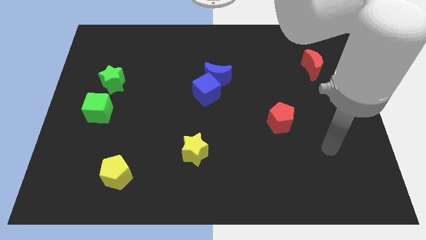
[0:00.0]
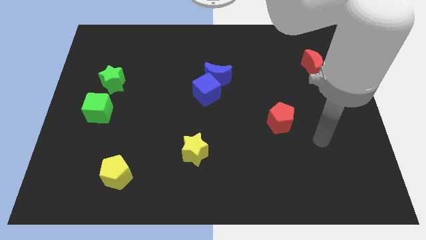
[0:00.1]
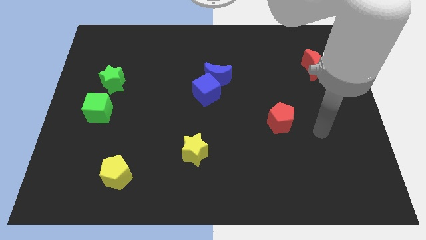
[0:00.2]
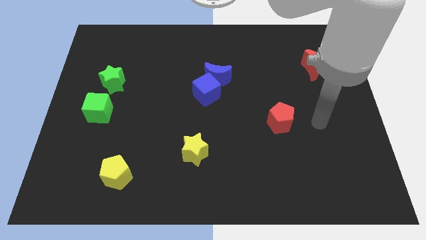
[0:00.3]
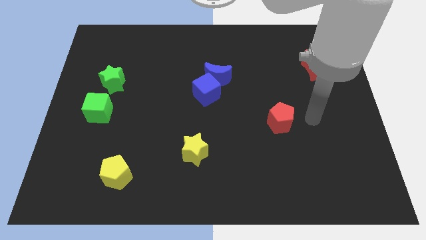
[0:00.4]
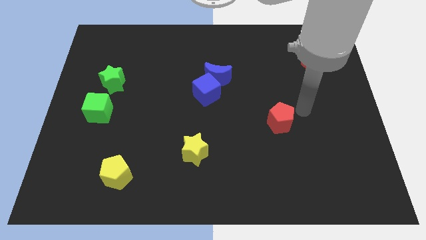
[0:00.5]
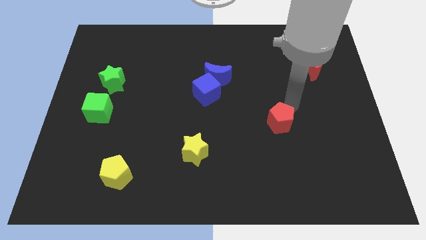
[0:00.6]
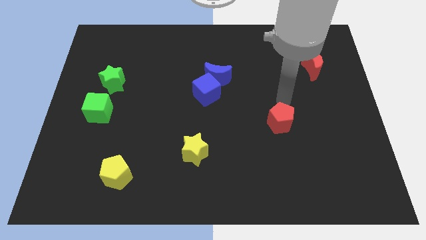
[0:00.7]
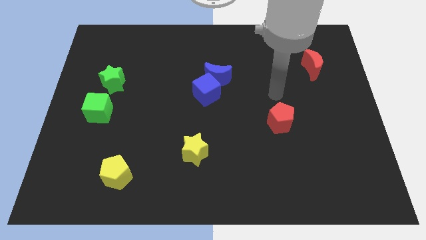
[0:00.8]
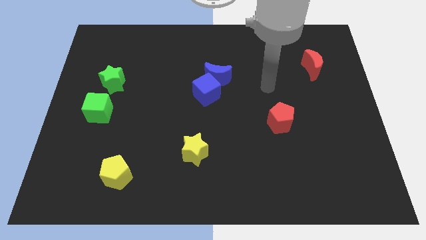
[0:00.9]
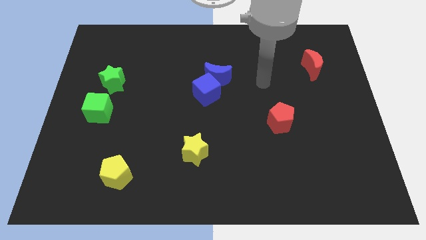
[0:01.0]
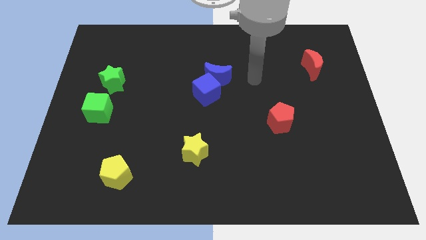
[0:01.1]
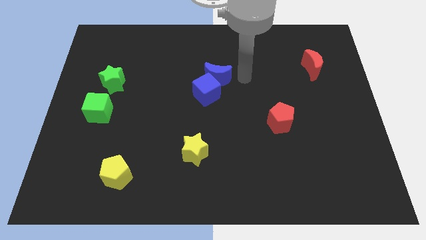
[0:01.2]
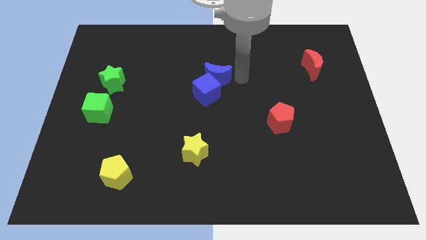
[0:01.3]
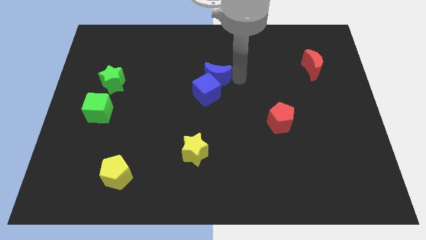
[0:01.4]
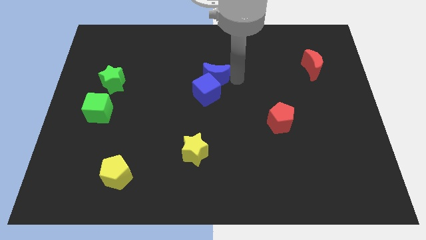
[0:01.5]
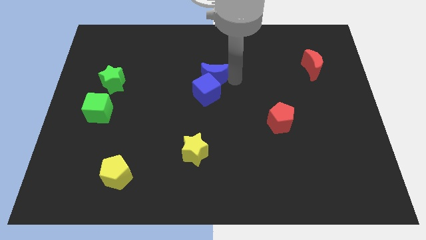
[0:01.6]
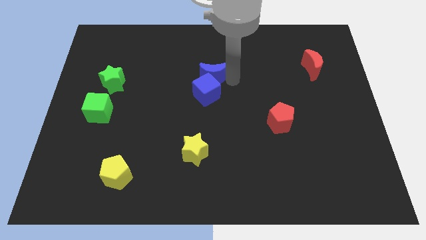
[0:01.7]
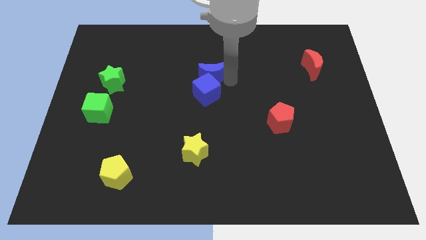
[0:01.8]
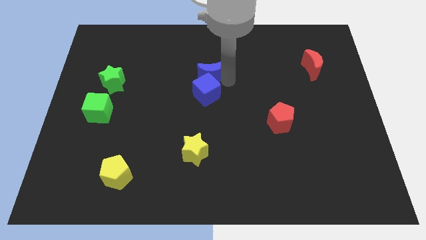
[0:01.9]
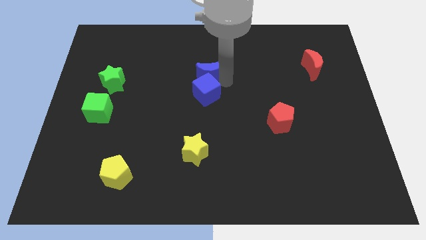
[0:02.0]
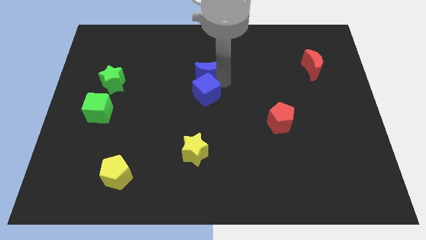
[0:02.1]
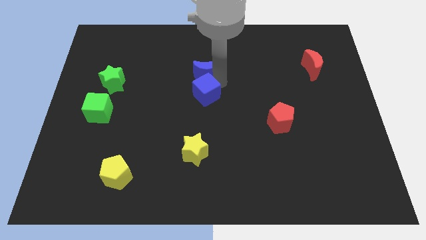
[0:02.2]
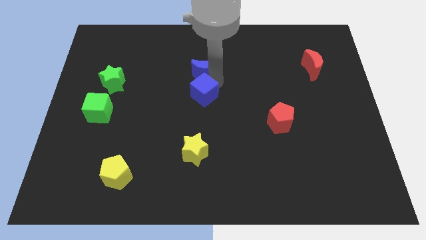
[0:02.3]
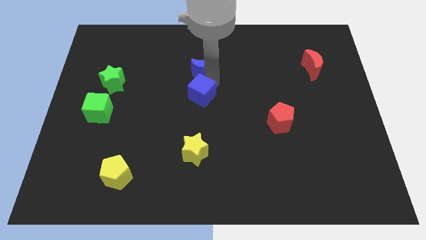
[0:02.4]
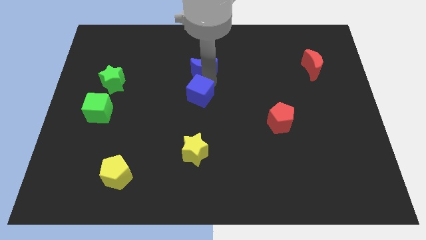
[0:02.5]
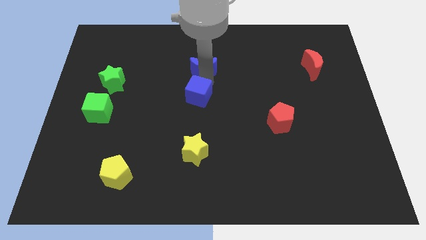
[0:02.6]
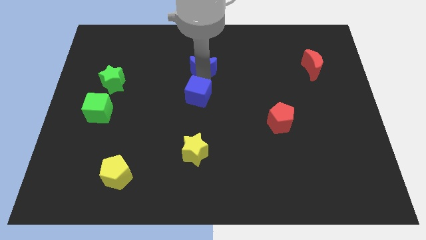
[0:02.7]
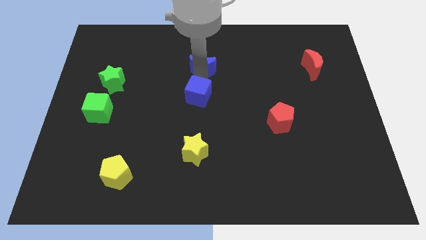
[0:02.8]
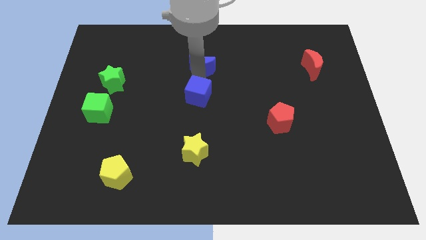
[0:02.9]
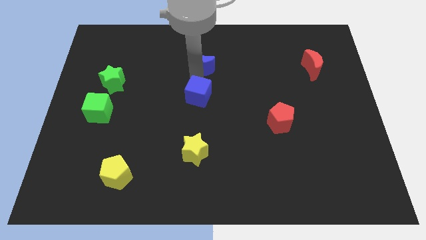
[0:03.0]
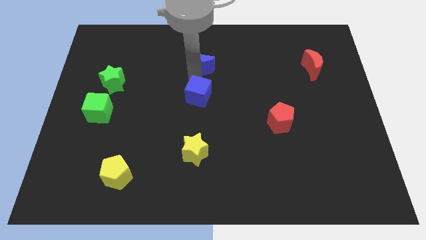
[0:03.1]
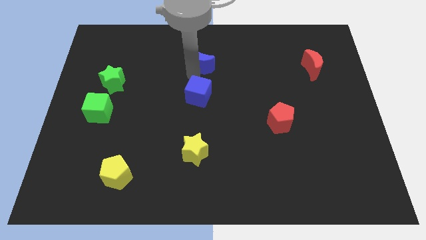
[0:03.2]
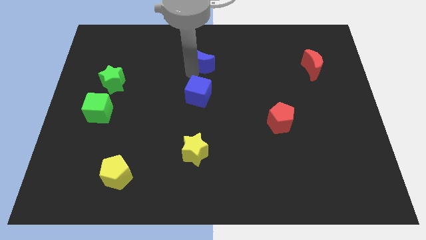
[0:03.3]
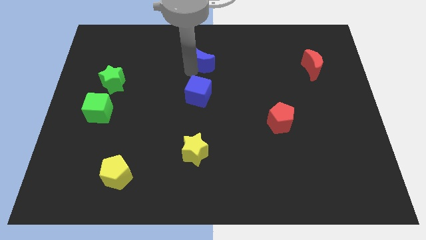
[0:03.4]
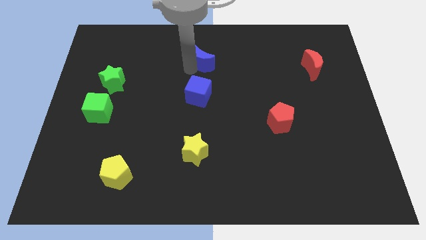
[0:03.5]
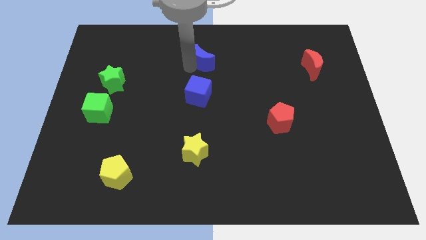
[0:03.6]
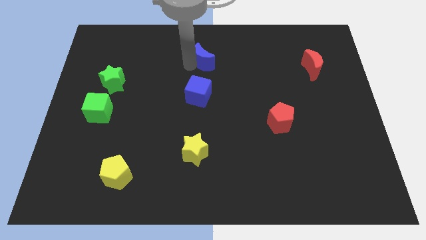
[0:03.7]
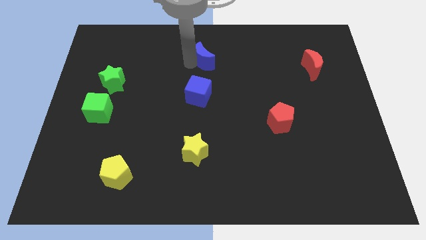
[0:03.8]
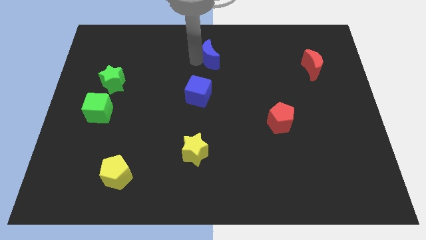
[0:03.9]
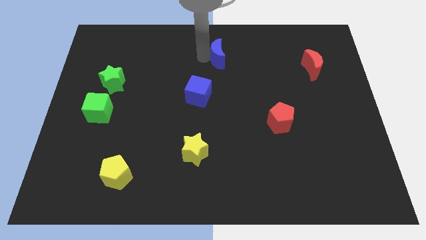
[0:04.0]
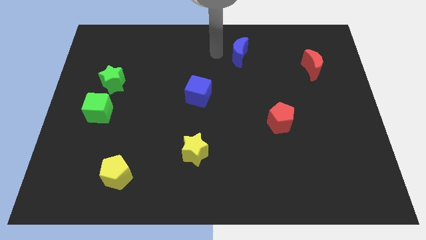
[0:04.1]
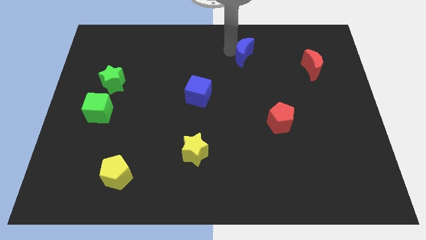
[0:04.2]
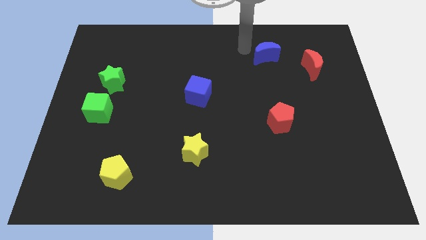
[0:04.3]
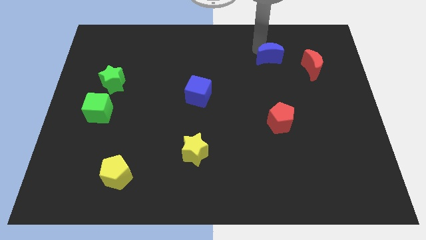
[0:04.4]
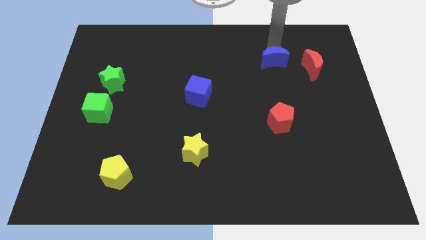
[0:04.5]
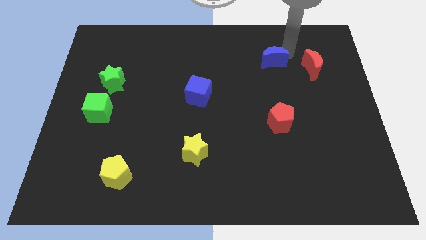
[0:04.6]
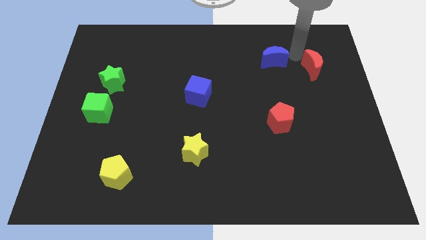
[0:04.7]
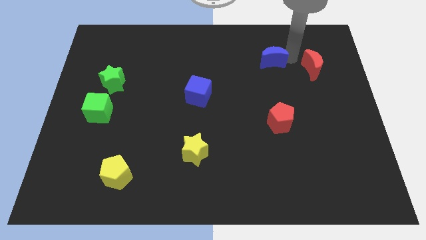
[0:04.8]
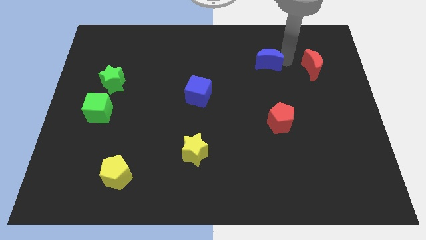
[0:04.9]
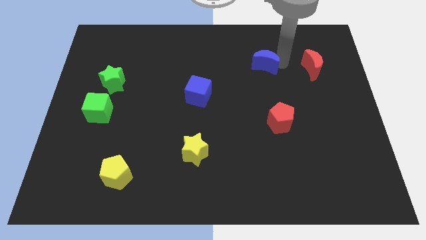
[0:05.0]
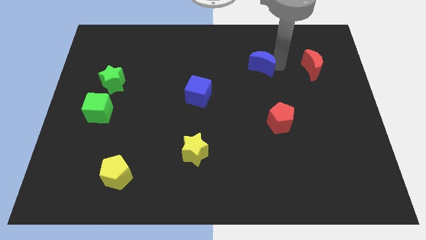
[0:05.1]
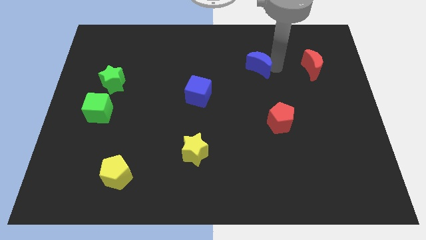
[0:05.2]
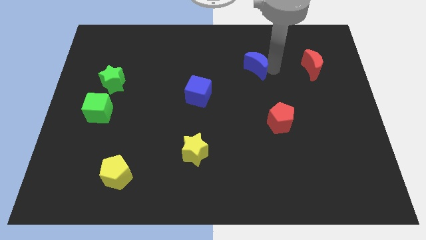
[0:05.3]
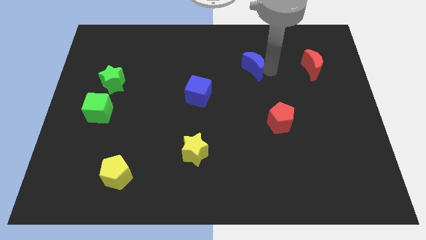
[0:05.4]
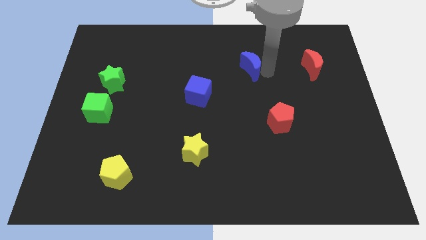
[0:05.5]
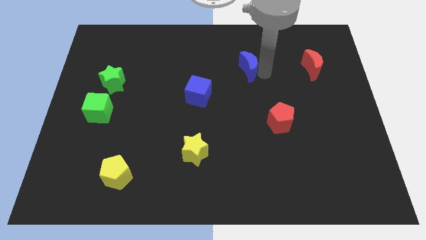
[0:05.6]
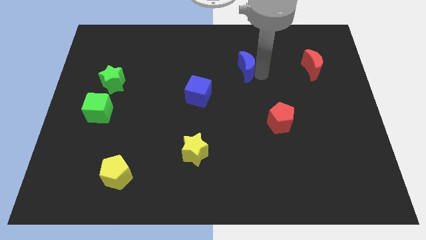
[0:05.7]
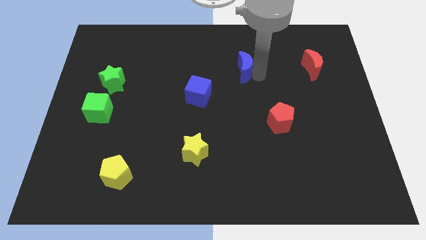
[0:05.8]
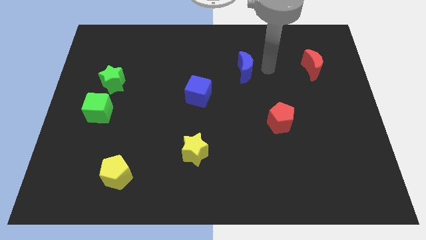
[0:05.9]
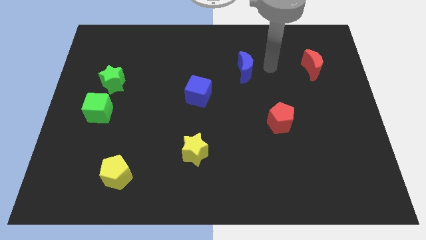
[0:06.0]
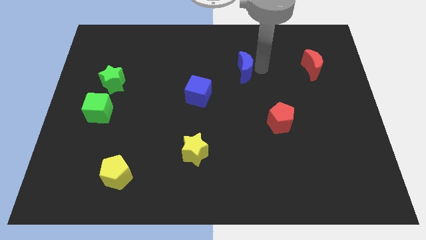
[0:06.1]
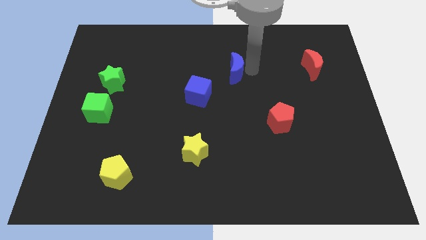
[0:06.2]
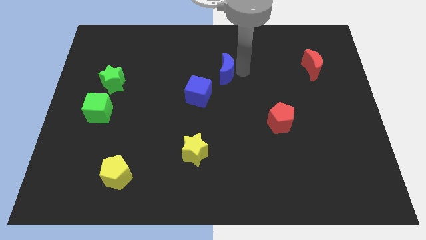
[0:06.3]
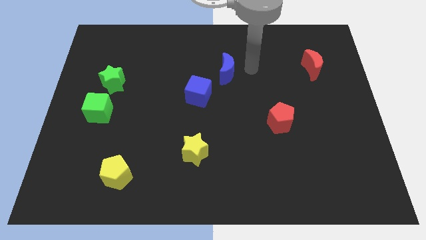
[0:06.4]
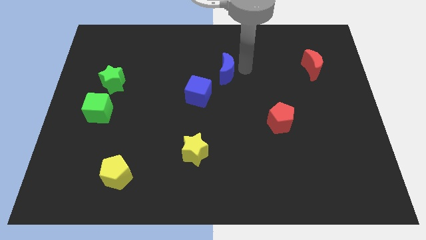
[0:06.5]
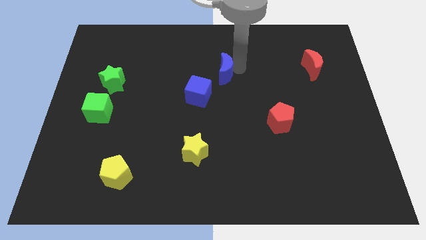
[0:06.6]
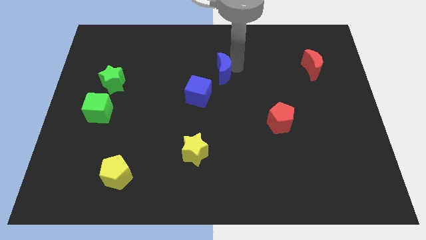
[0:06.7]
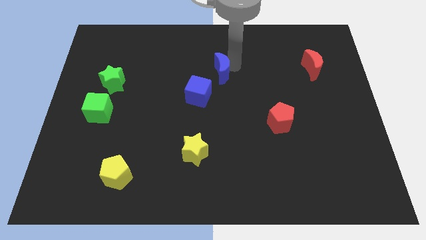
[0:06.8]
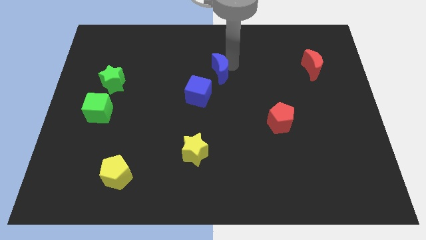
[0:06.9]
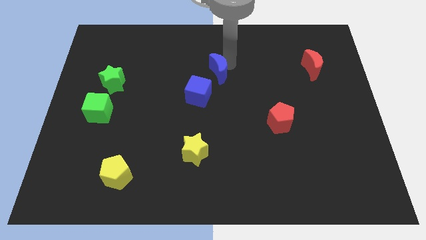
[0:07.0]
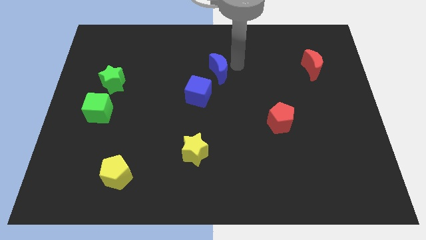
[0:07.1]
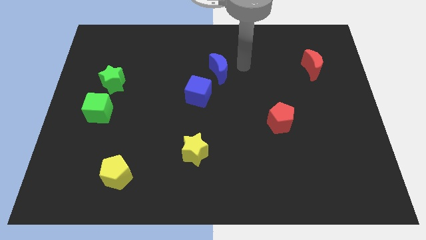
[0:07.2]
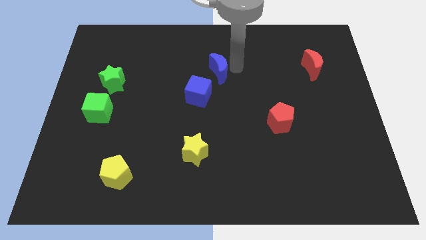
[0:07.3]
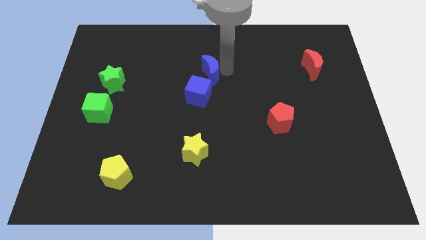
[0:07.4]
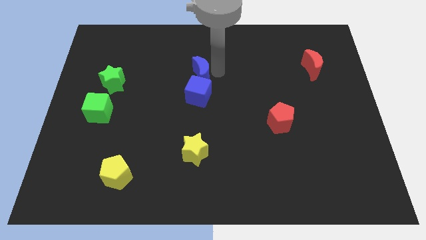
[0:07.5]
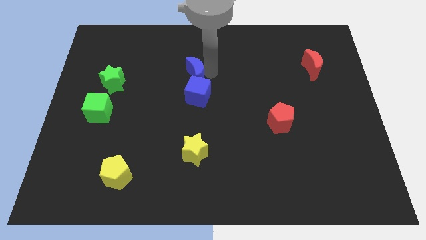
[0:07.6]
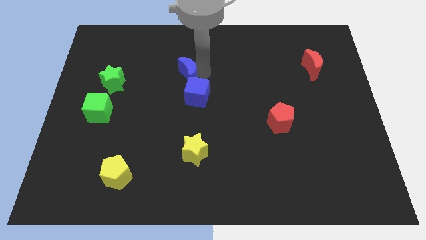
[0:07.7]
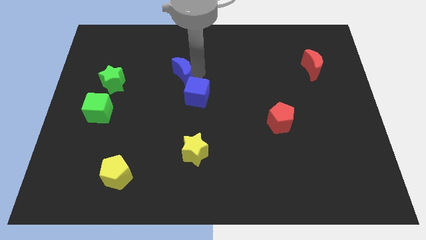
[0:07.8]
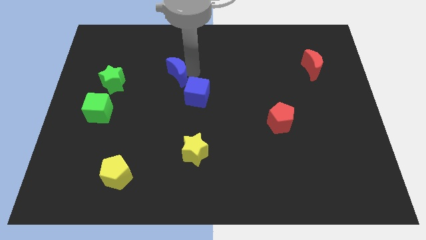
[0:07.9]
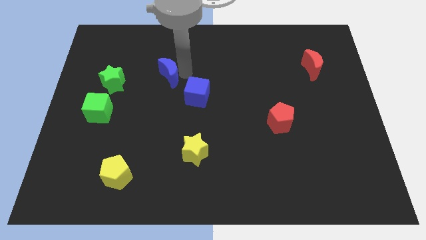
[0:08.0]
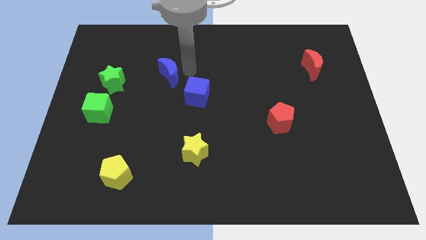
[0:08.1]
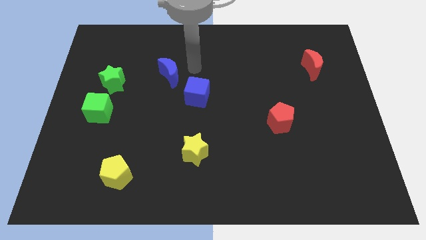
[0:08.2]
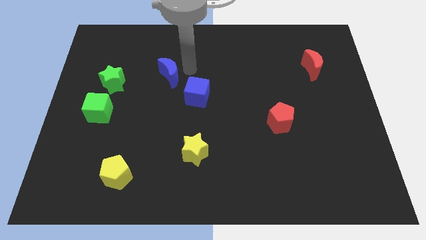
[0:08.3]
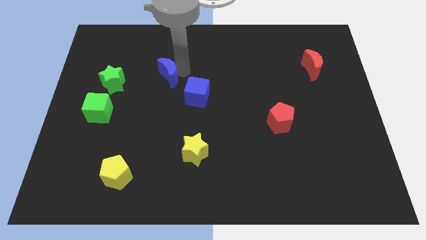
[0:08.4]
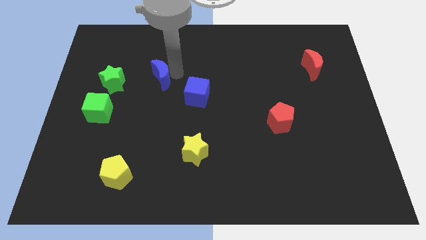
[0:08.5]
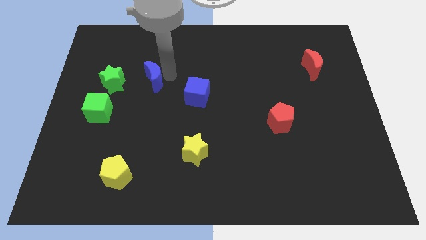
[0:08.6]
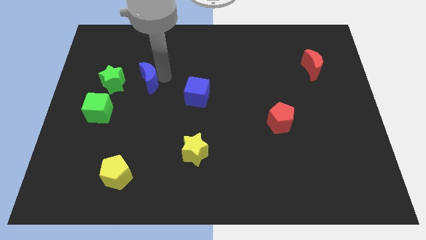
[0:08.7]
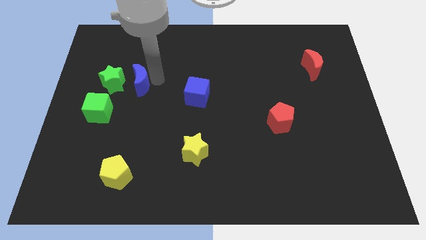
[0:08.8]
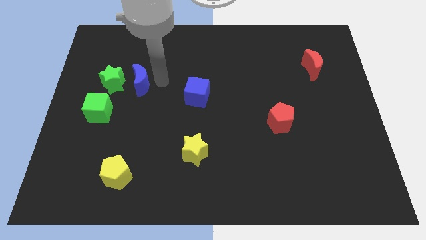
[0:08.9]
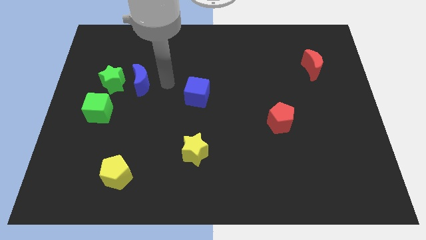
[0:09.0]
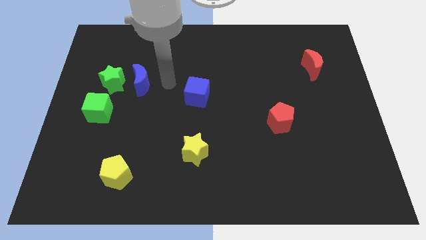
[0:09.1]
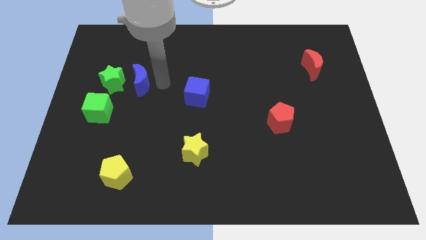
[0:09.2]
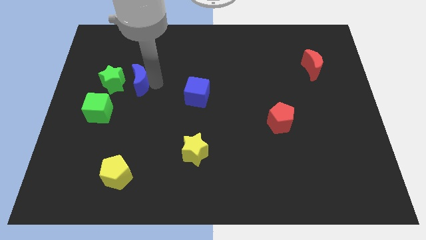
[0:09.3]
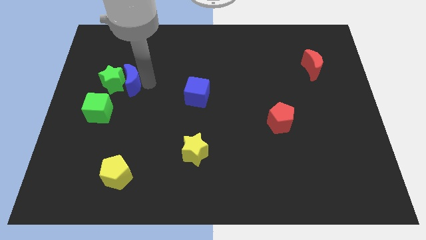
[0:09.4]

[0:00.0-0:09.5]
slide the blue moon to the green star
